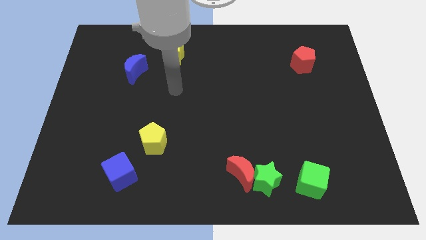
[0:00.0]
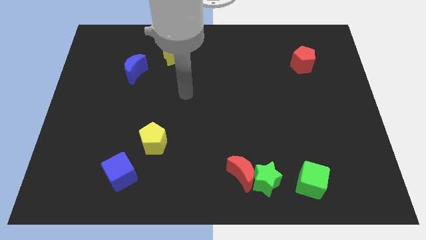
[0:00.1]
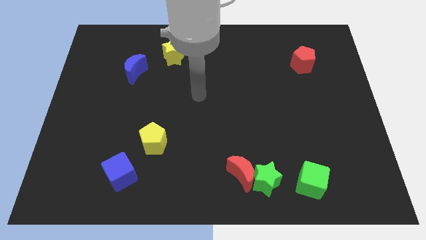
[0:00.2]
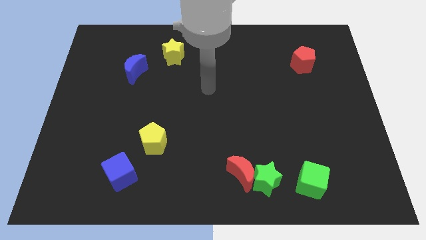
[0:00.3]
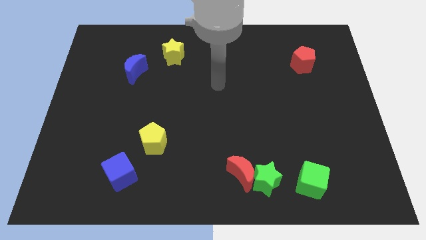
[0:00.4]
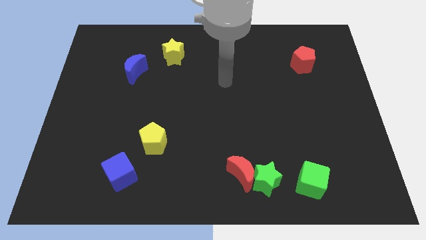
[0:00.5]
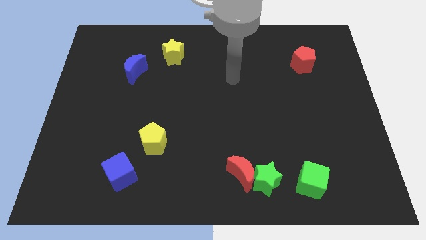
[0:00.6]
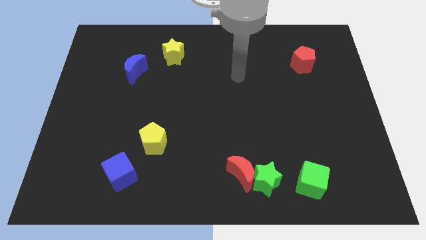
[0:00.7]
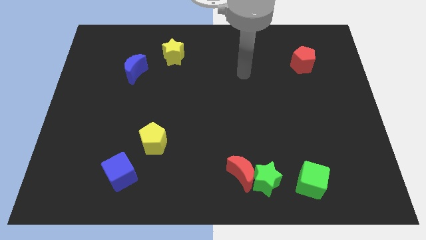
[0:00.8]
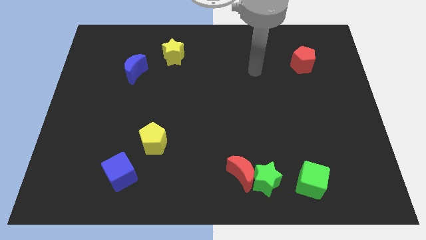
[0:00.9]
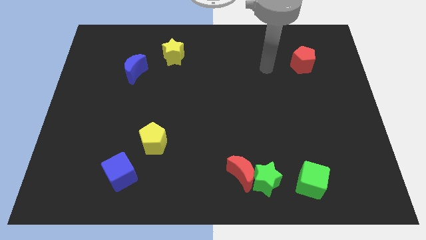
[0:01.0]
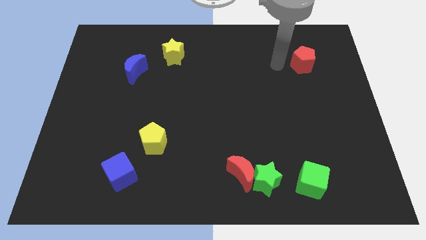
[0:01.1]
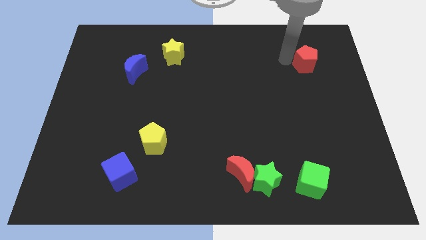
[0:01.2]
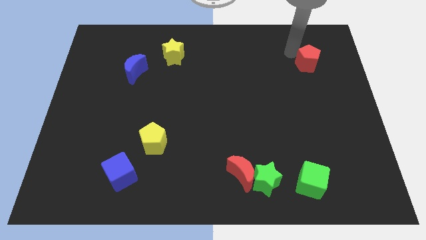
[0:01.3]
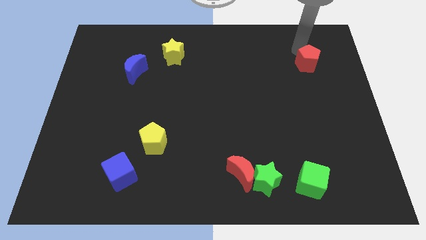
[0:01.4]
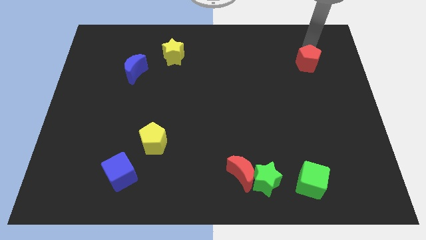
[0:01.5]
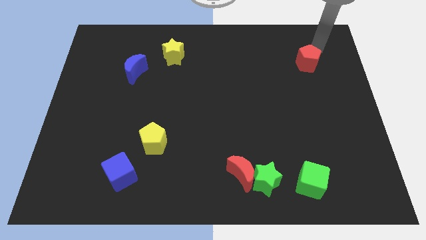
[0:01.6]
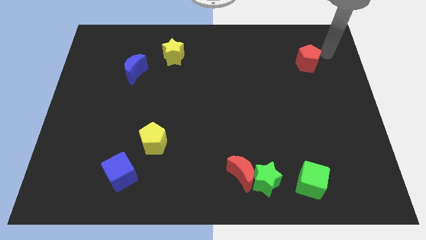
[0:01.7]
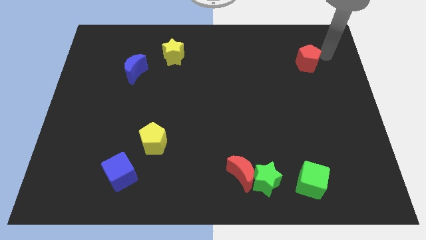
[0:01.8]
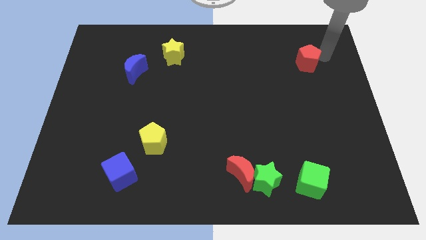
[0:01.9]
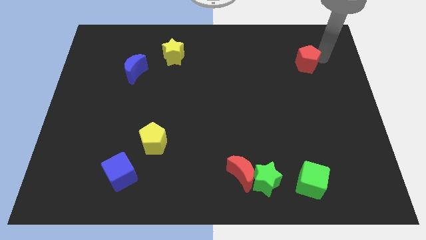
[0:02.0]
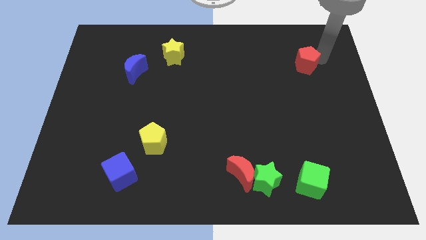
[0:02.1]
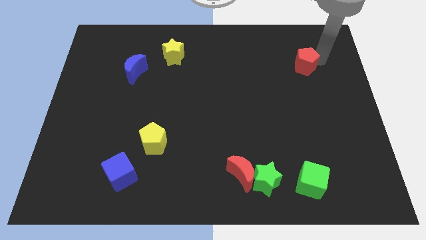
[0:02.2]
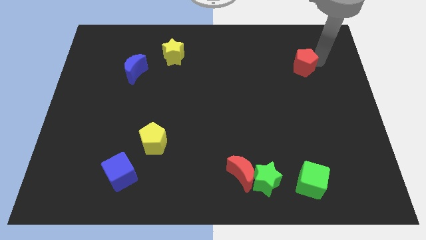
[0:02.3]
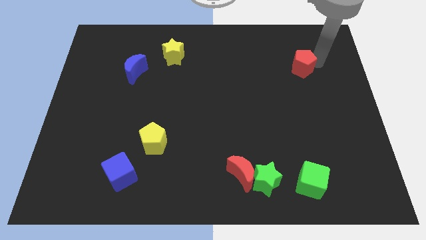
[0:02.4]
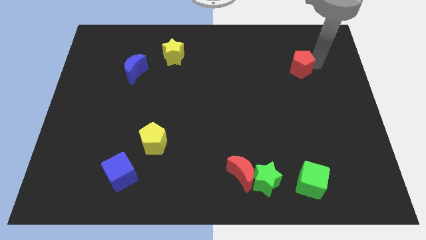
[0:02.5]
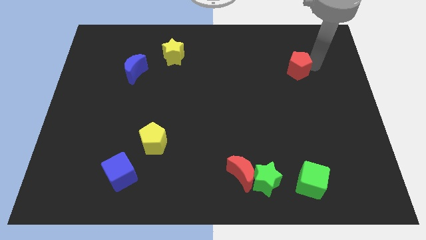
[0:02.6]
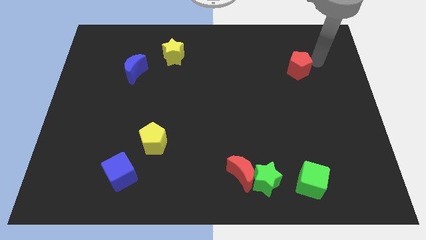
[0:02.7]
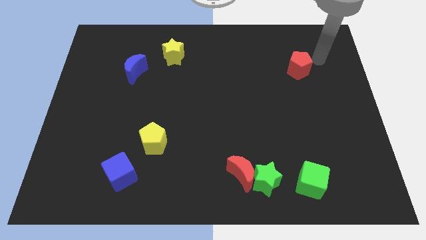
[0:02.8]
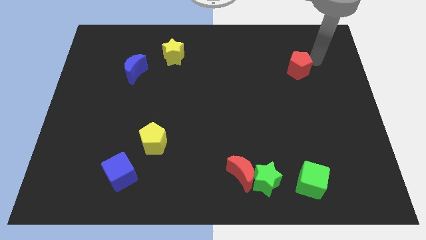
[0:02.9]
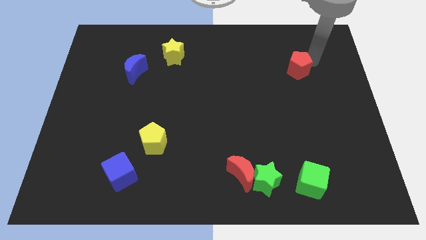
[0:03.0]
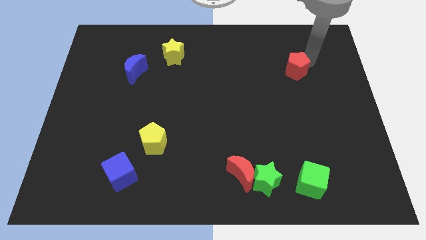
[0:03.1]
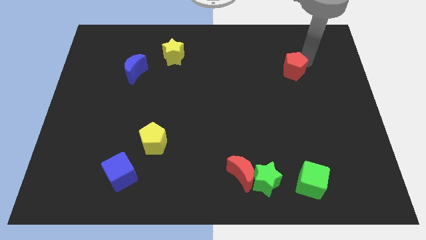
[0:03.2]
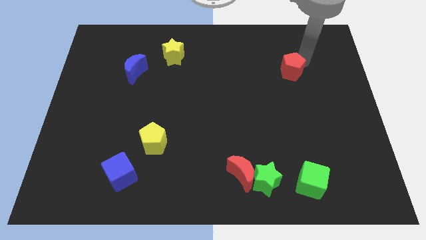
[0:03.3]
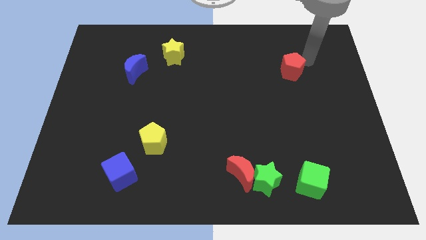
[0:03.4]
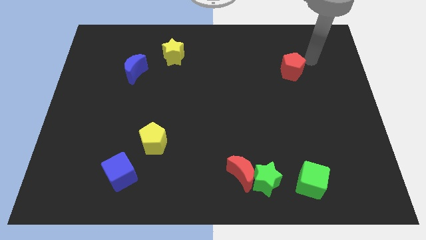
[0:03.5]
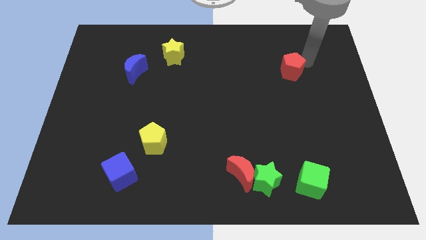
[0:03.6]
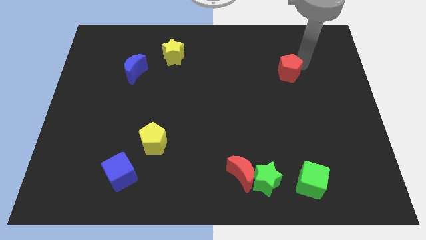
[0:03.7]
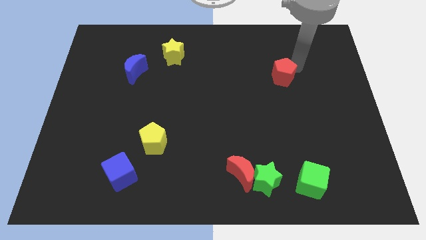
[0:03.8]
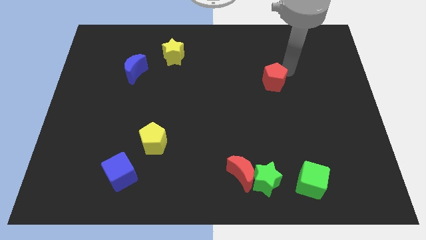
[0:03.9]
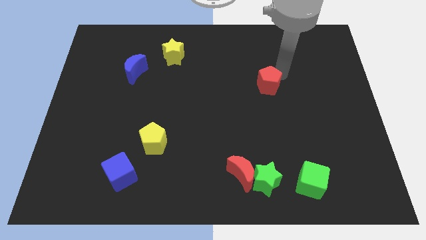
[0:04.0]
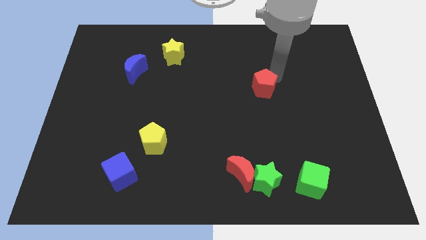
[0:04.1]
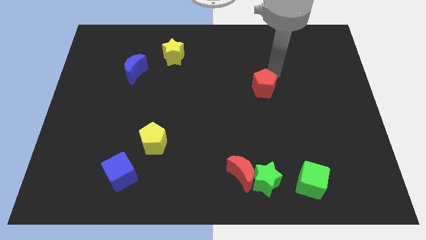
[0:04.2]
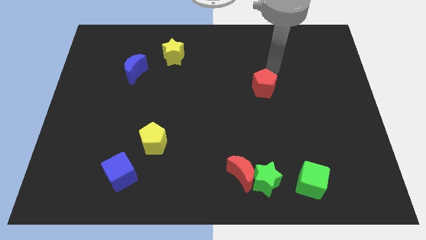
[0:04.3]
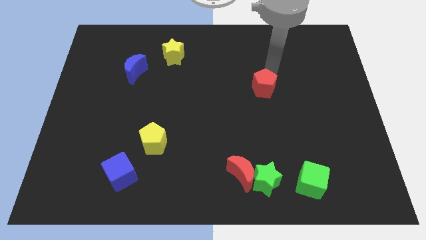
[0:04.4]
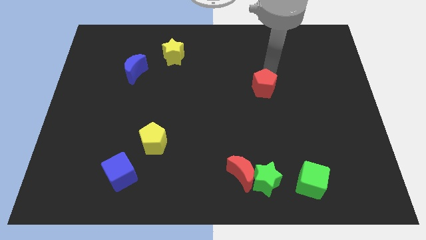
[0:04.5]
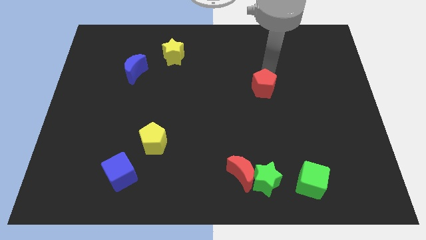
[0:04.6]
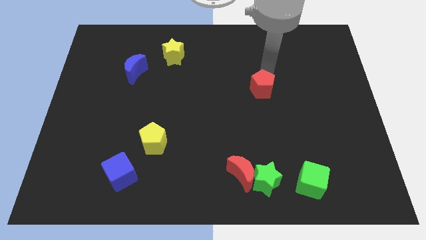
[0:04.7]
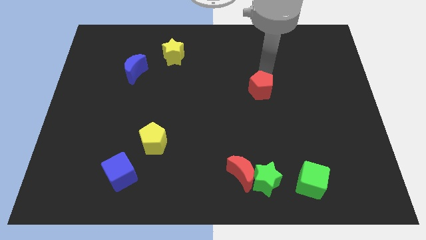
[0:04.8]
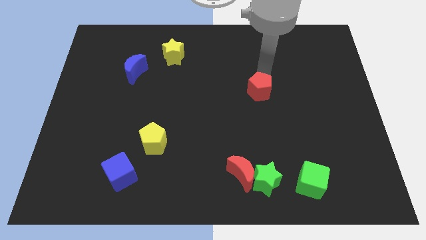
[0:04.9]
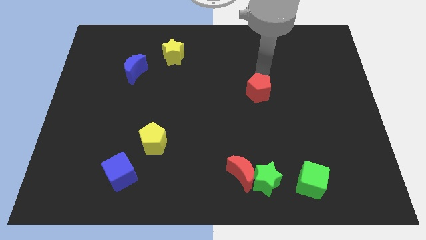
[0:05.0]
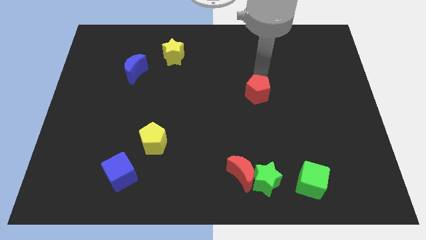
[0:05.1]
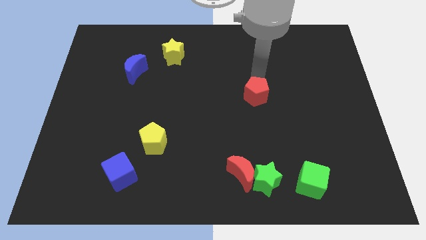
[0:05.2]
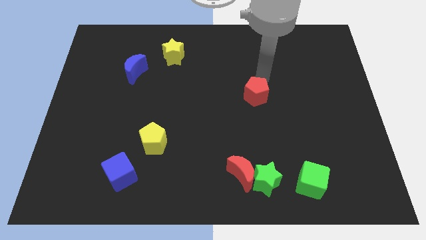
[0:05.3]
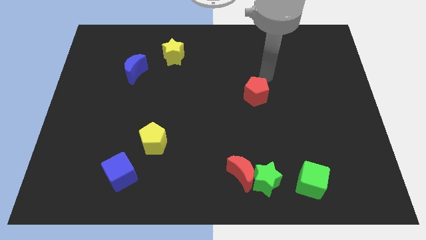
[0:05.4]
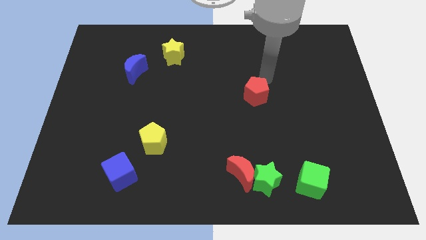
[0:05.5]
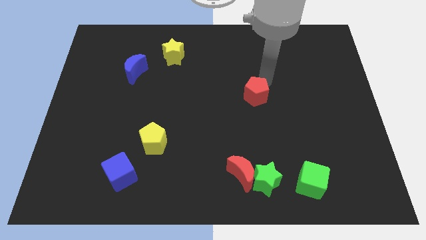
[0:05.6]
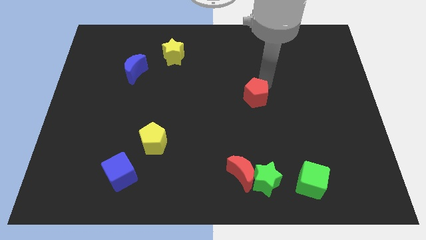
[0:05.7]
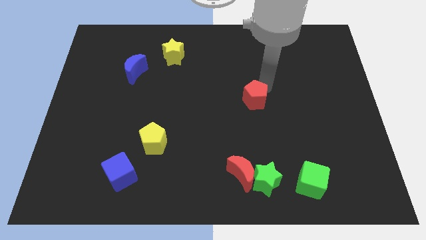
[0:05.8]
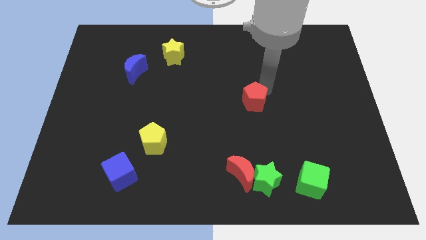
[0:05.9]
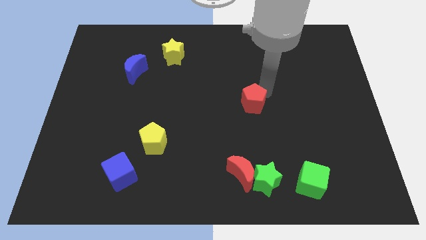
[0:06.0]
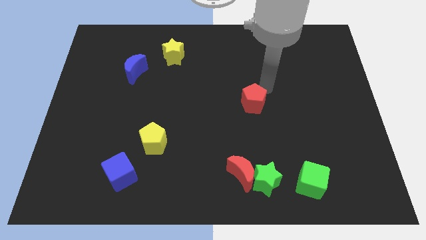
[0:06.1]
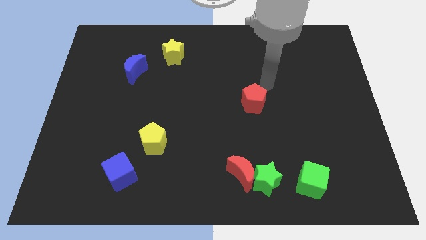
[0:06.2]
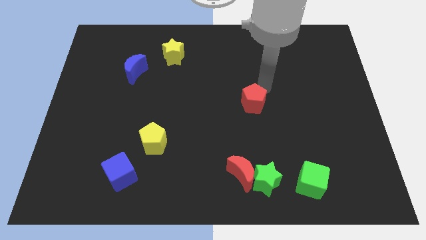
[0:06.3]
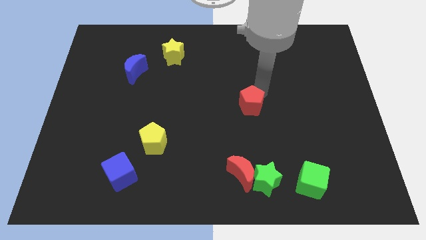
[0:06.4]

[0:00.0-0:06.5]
move the red pentagon downwards and left

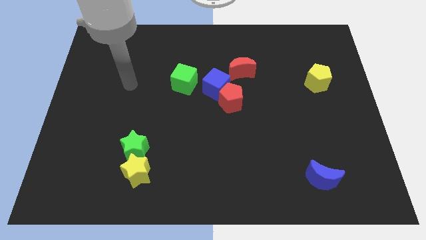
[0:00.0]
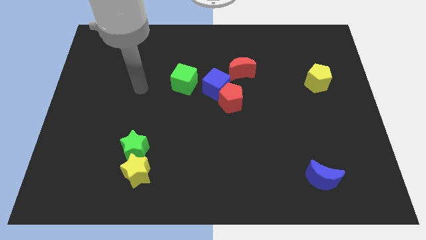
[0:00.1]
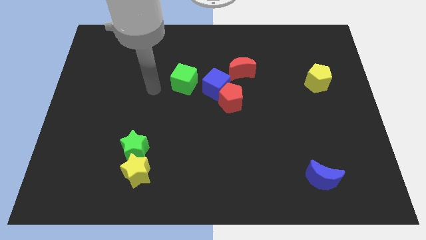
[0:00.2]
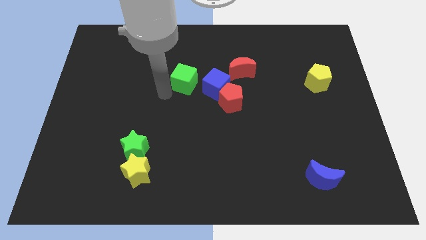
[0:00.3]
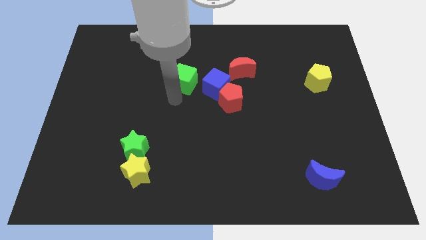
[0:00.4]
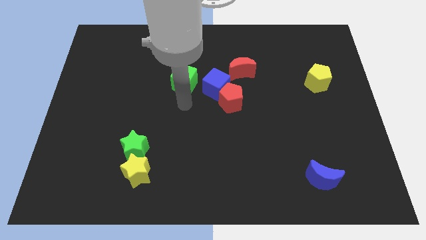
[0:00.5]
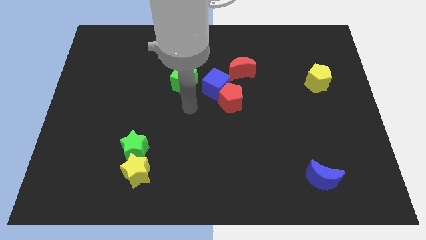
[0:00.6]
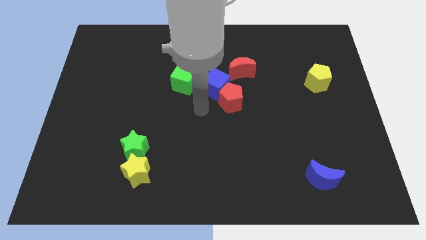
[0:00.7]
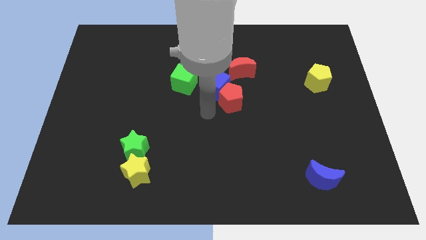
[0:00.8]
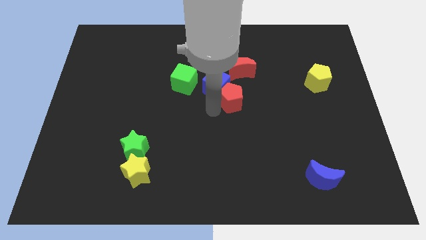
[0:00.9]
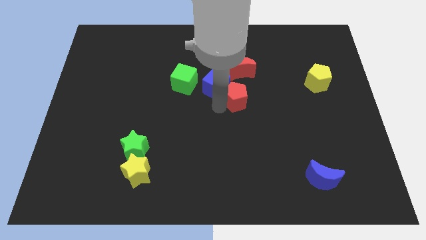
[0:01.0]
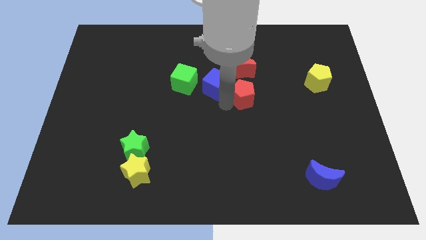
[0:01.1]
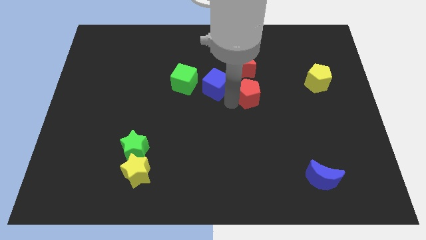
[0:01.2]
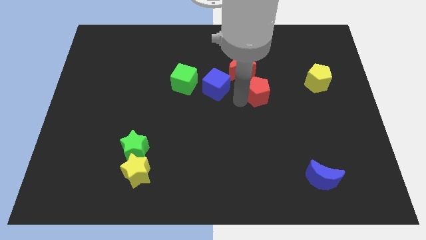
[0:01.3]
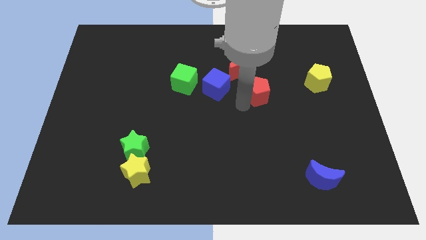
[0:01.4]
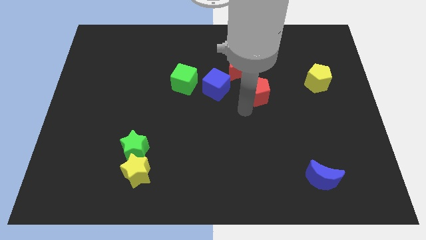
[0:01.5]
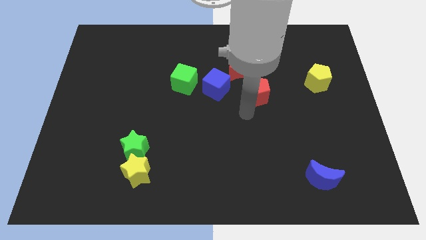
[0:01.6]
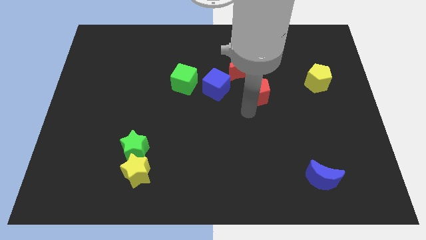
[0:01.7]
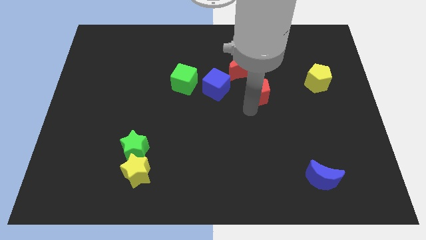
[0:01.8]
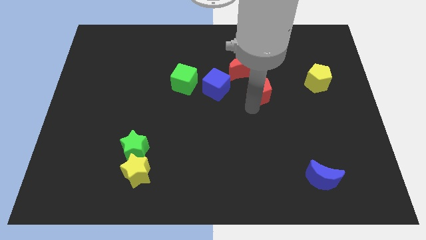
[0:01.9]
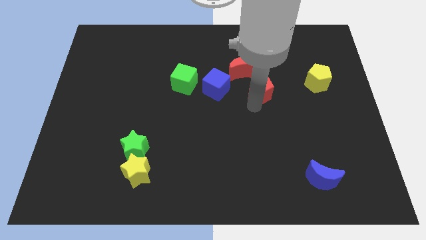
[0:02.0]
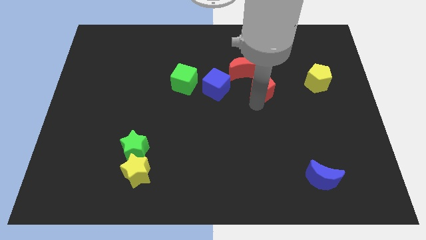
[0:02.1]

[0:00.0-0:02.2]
slightly move the red pentagon upwards and then to the right
